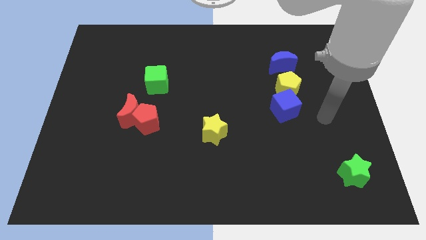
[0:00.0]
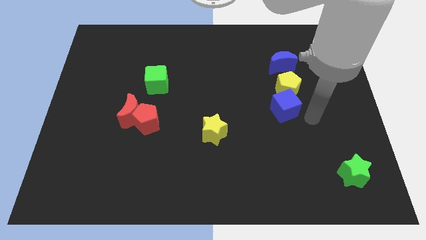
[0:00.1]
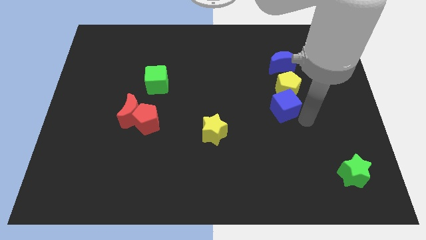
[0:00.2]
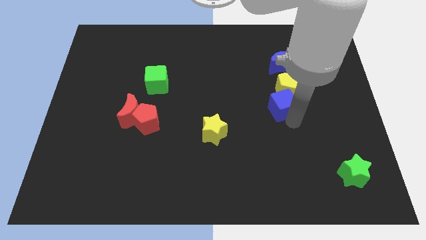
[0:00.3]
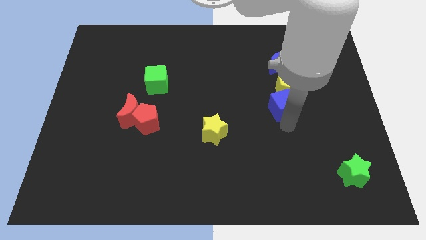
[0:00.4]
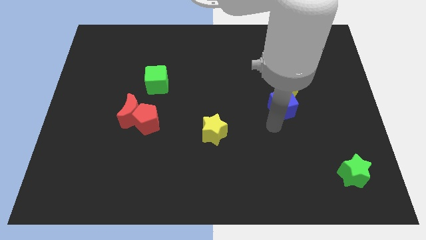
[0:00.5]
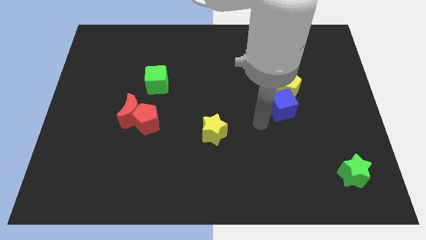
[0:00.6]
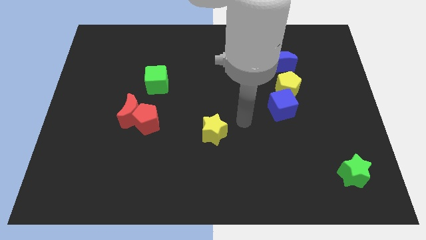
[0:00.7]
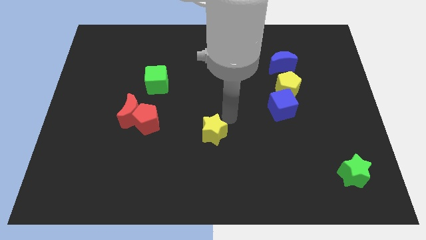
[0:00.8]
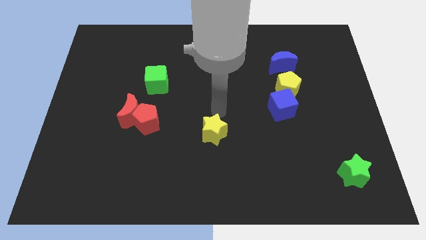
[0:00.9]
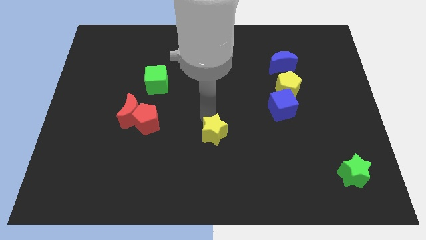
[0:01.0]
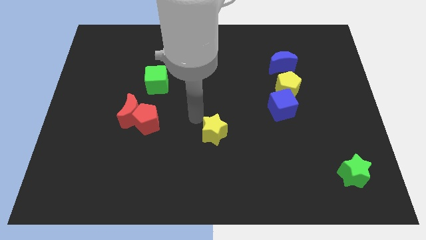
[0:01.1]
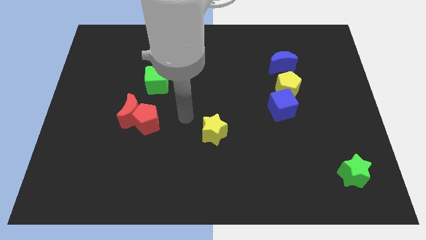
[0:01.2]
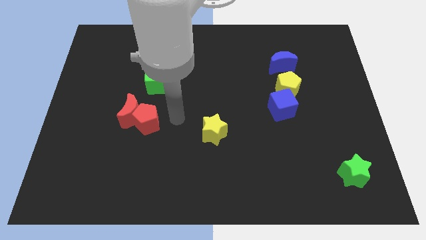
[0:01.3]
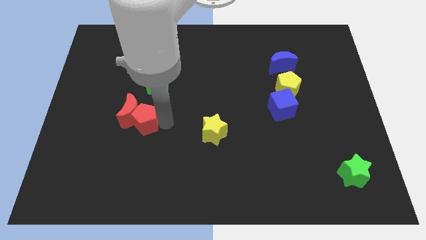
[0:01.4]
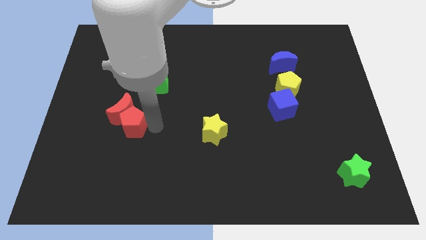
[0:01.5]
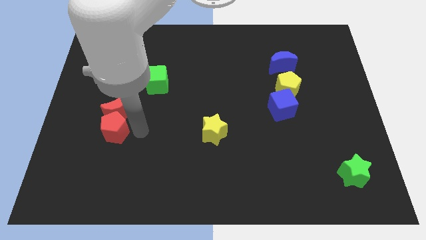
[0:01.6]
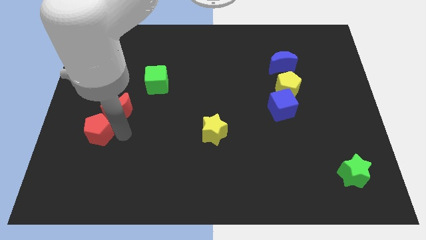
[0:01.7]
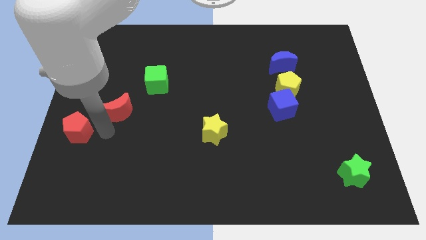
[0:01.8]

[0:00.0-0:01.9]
move the red moon away from the red pentagon

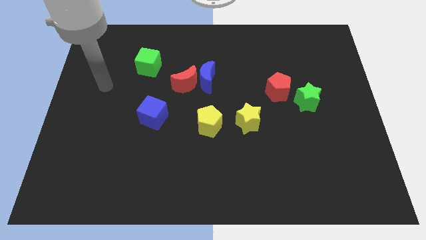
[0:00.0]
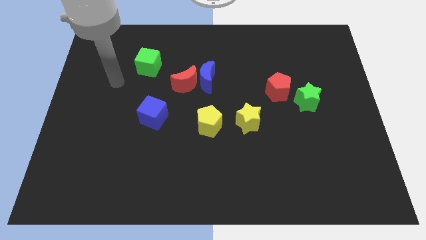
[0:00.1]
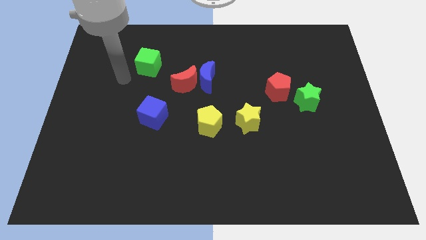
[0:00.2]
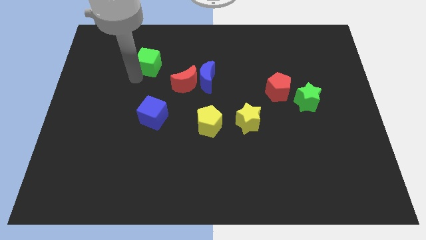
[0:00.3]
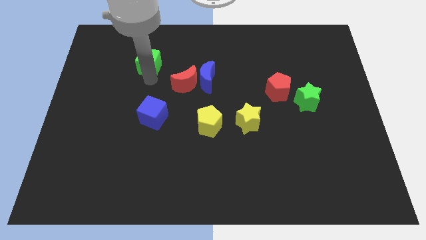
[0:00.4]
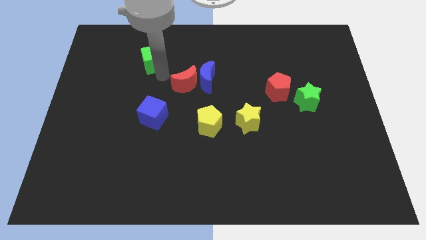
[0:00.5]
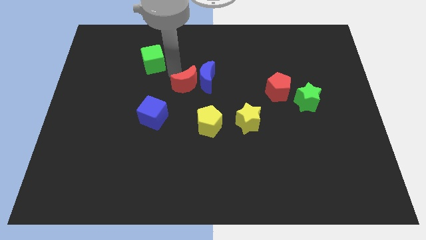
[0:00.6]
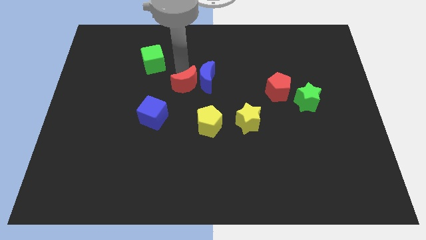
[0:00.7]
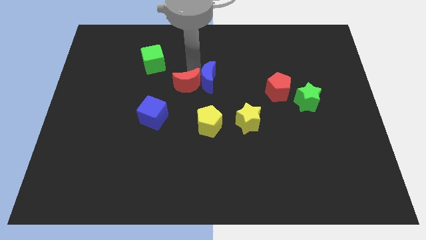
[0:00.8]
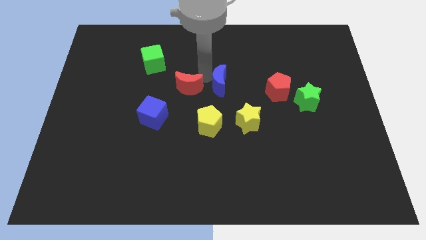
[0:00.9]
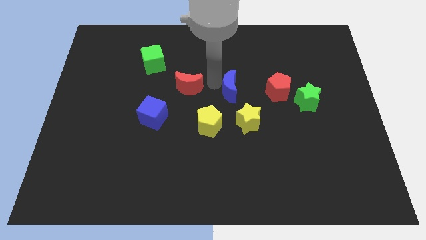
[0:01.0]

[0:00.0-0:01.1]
pull the red moon apart from the blue moon

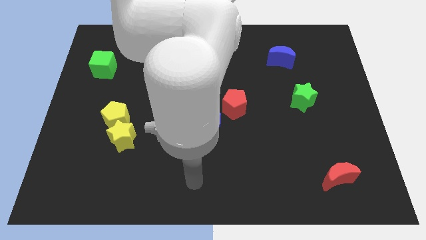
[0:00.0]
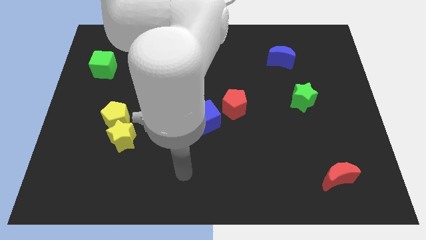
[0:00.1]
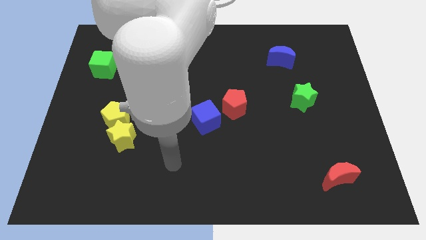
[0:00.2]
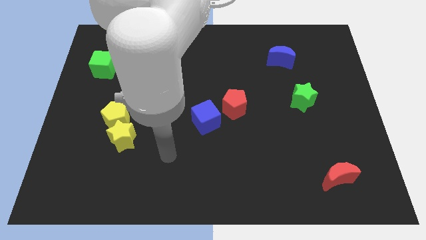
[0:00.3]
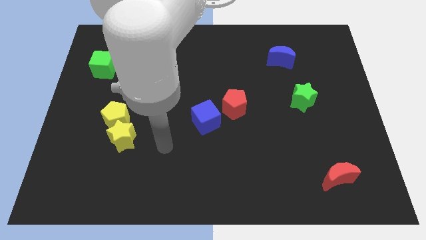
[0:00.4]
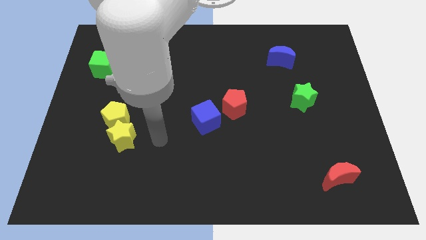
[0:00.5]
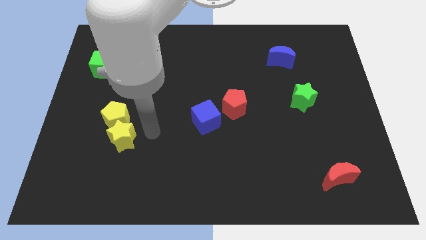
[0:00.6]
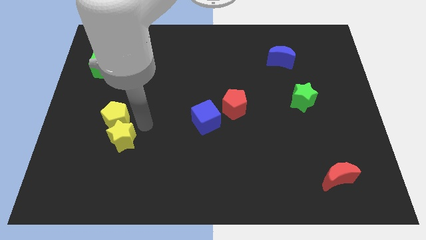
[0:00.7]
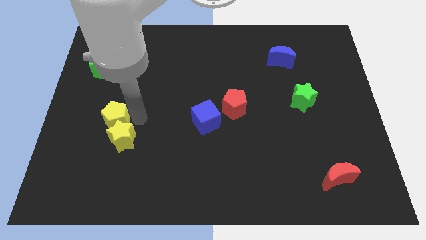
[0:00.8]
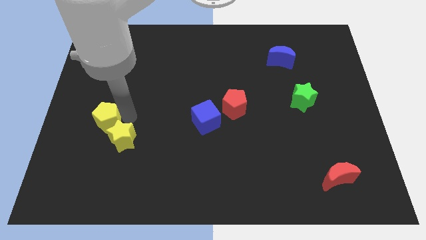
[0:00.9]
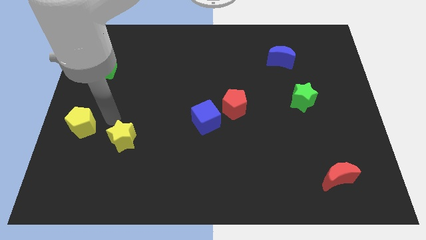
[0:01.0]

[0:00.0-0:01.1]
pull the yellow star apart from the yellow pentagon

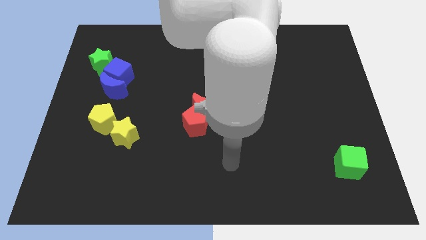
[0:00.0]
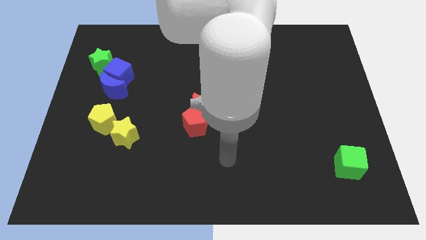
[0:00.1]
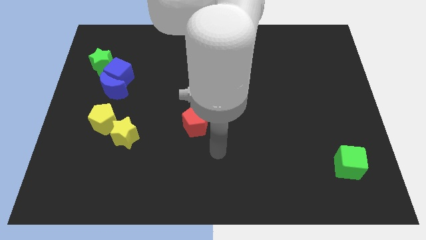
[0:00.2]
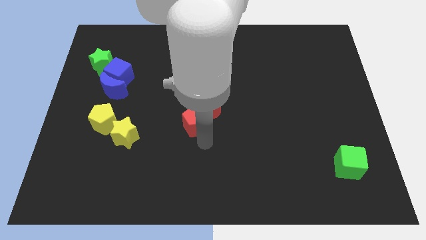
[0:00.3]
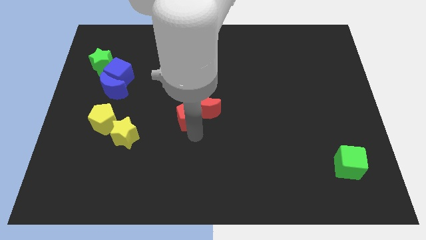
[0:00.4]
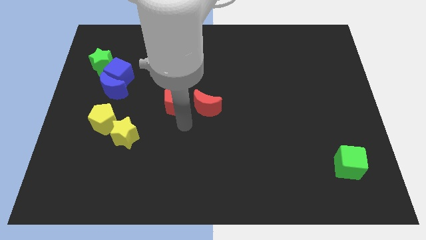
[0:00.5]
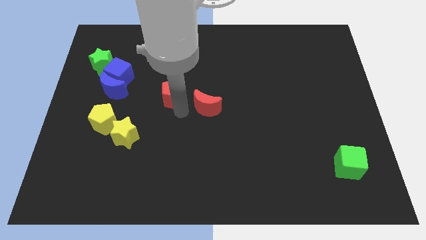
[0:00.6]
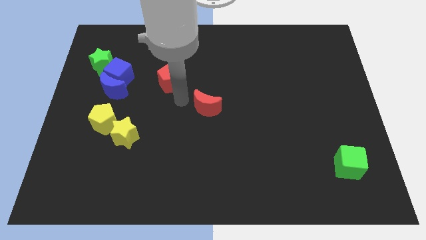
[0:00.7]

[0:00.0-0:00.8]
pull the red moon apart from the red pentagon

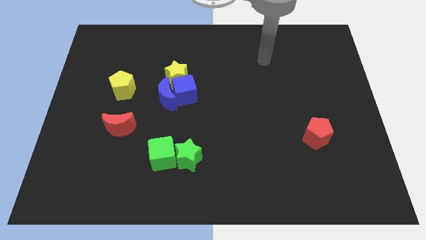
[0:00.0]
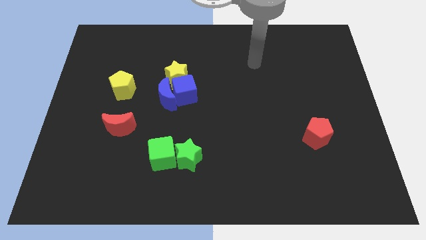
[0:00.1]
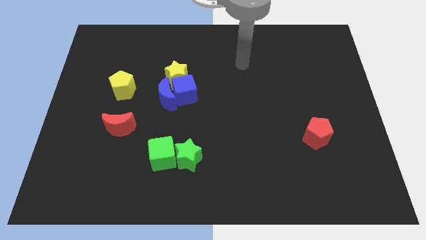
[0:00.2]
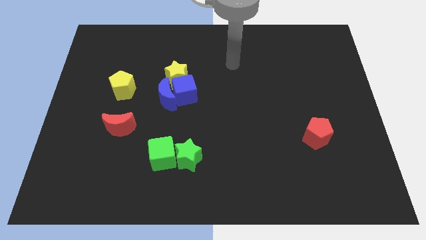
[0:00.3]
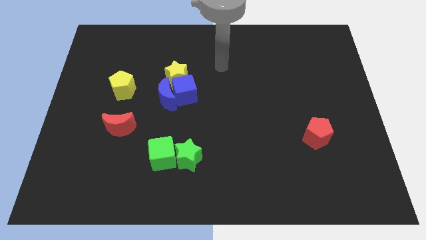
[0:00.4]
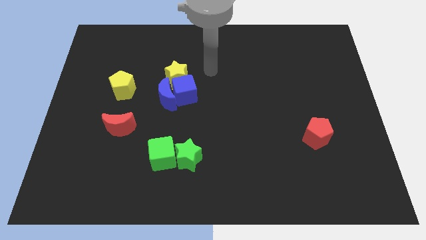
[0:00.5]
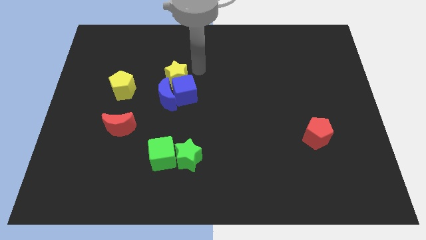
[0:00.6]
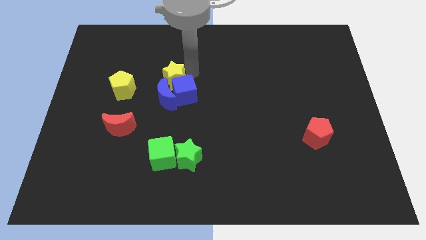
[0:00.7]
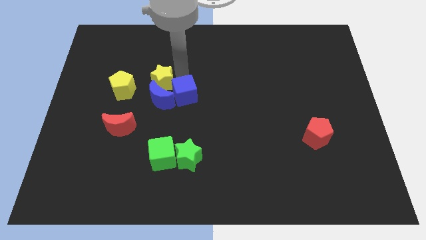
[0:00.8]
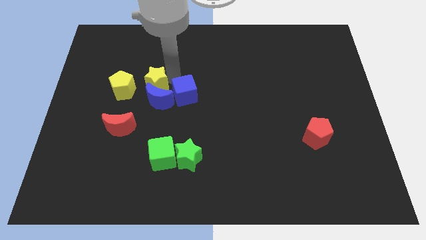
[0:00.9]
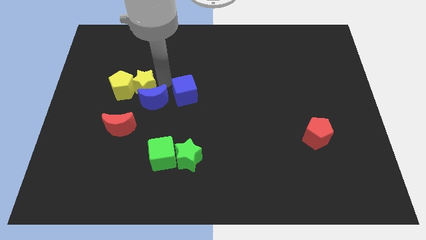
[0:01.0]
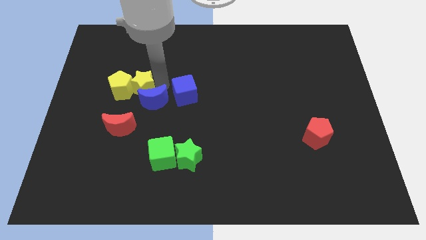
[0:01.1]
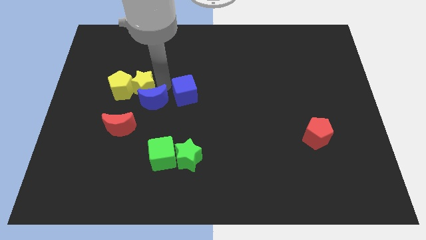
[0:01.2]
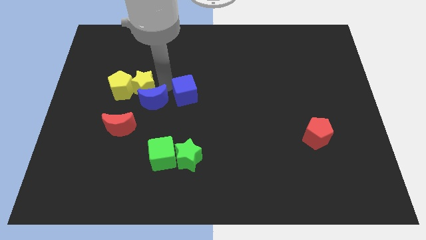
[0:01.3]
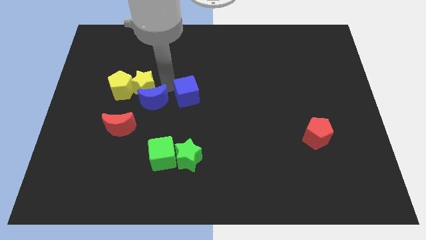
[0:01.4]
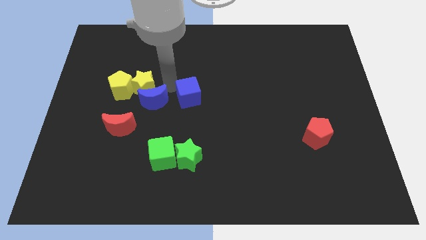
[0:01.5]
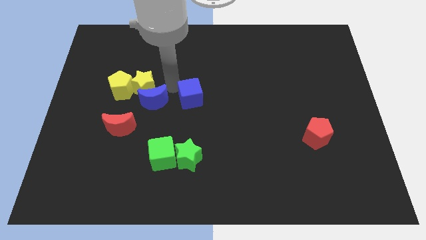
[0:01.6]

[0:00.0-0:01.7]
move the blue cube away from the blue moon and yellow star

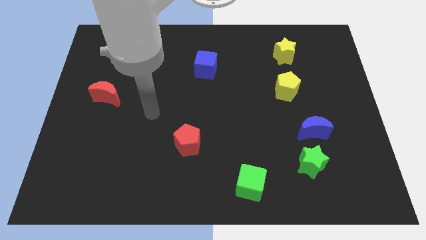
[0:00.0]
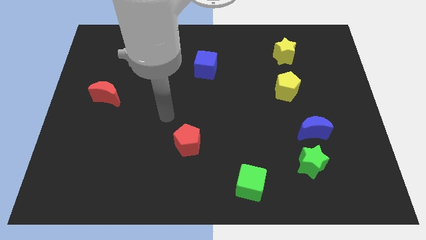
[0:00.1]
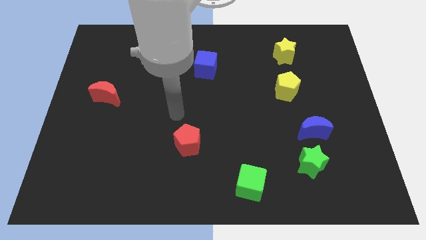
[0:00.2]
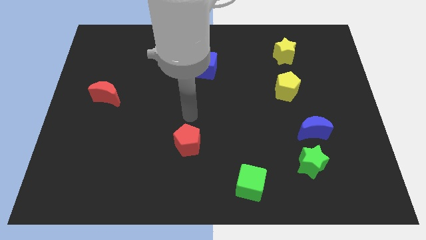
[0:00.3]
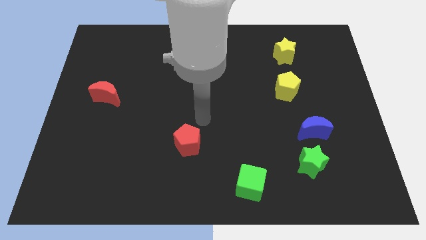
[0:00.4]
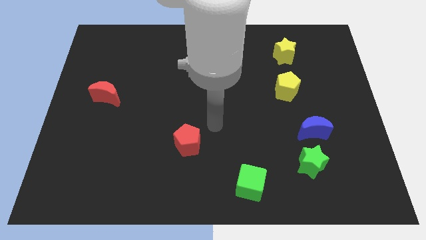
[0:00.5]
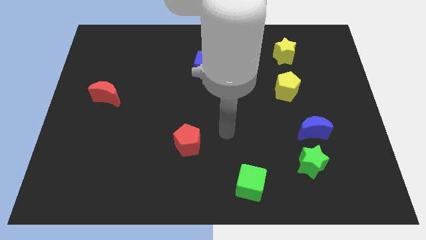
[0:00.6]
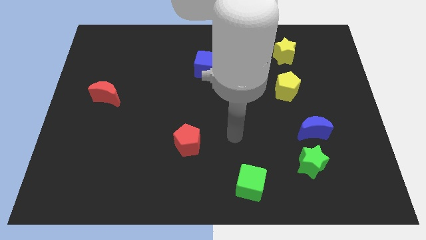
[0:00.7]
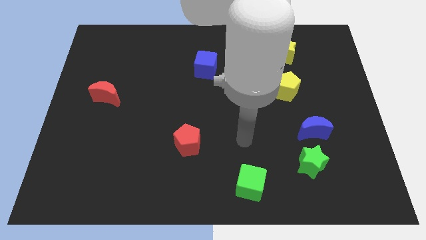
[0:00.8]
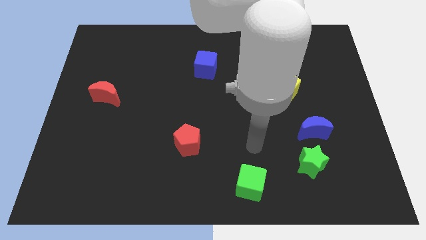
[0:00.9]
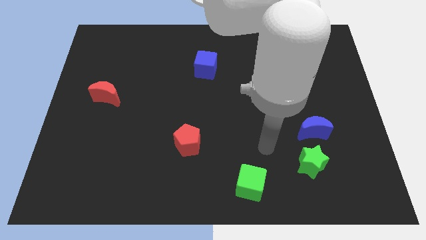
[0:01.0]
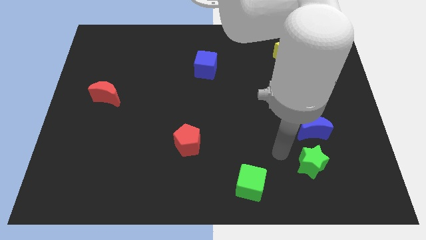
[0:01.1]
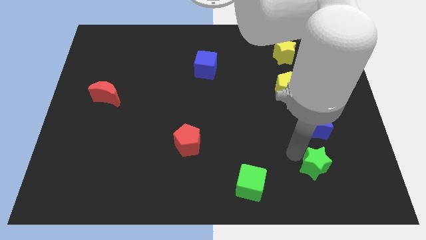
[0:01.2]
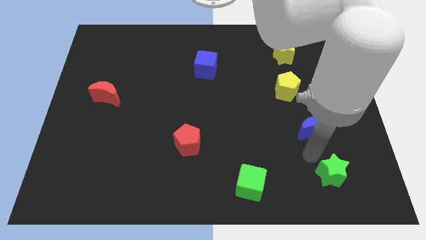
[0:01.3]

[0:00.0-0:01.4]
pull the blue moon apart from the green star

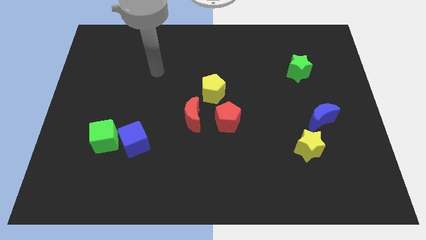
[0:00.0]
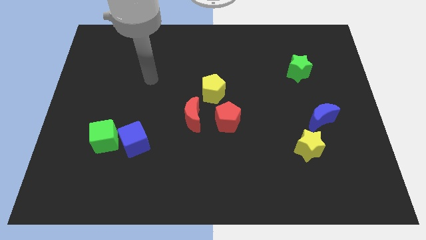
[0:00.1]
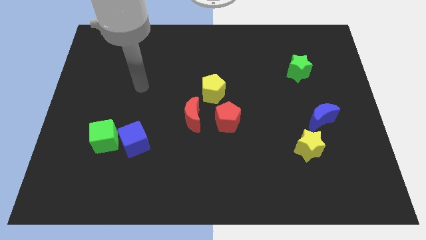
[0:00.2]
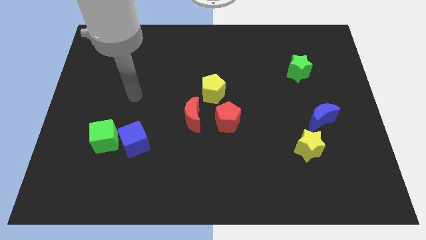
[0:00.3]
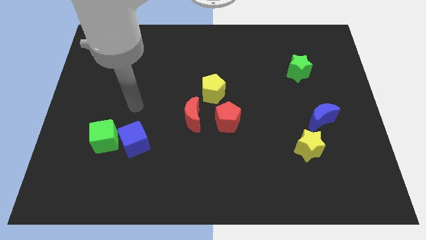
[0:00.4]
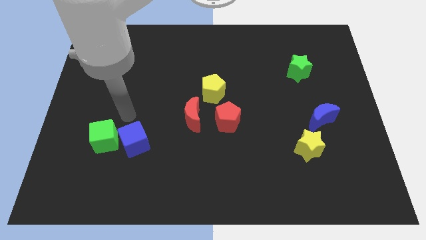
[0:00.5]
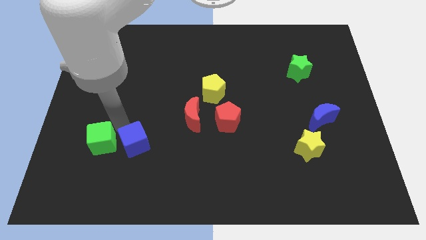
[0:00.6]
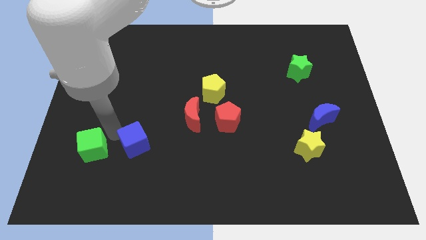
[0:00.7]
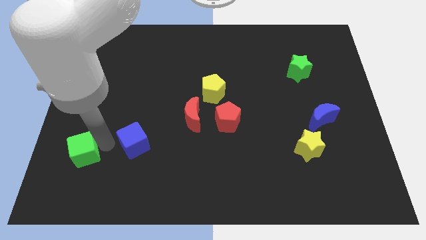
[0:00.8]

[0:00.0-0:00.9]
move the blue cube away from the green cube

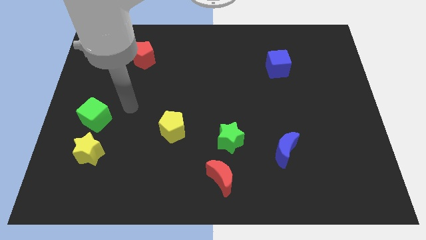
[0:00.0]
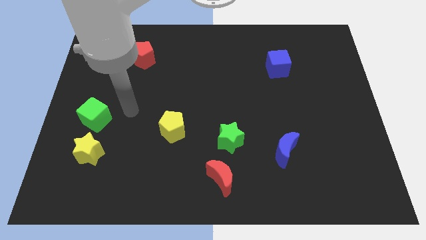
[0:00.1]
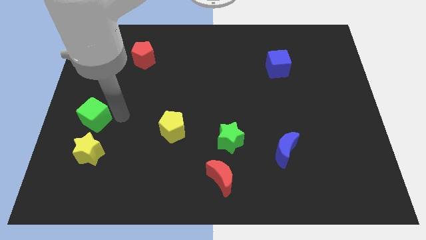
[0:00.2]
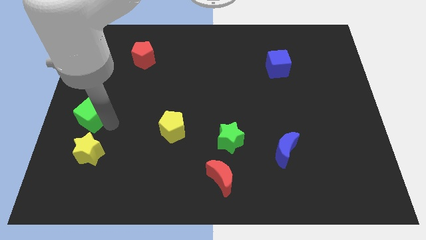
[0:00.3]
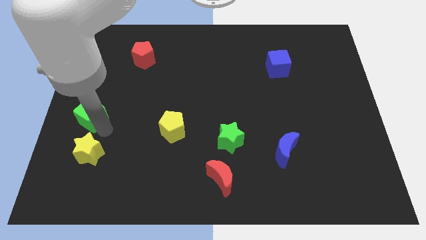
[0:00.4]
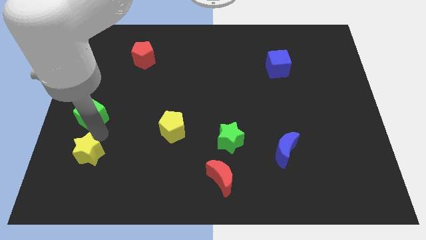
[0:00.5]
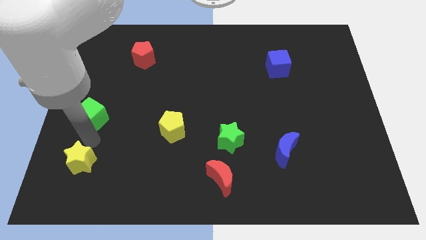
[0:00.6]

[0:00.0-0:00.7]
pull the green cube apart from the yellow star
